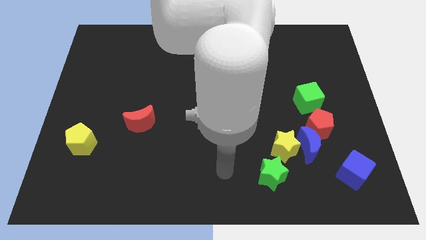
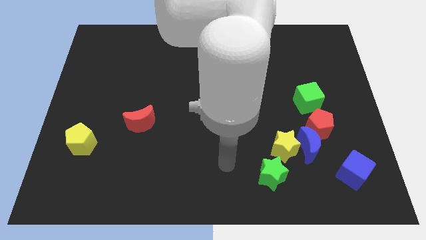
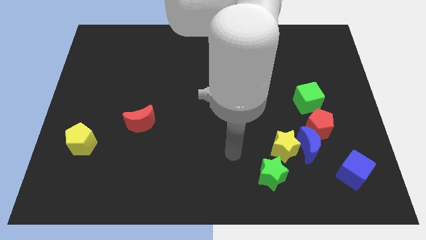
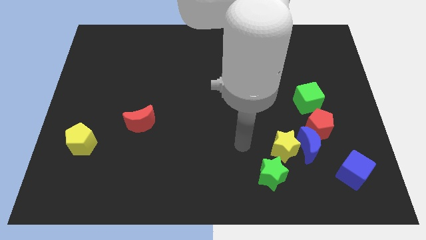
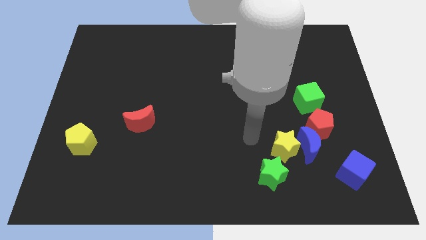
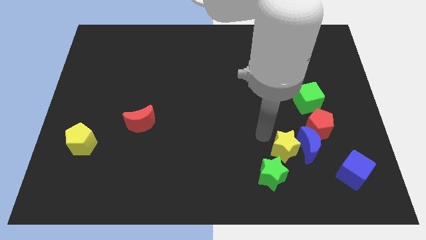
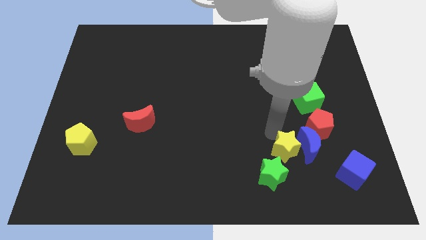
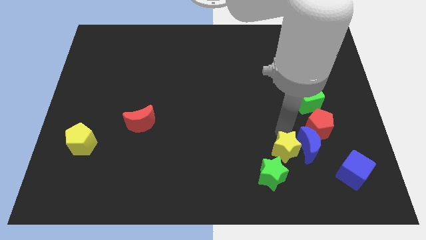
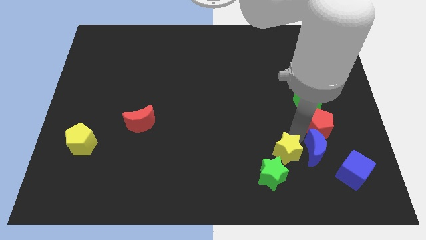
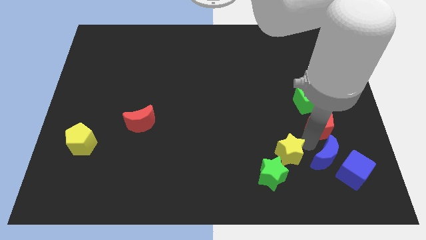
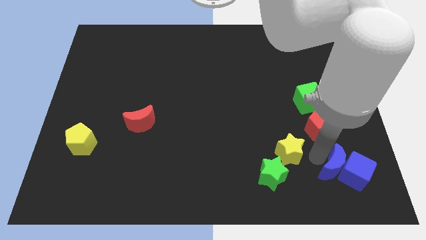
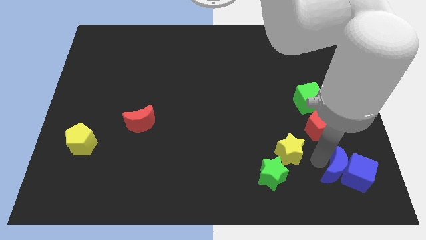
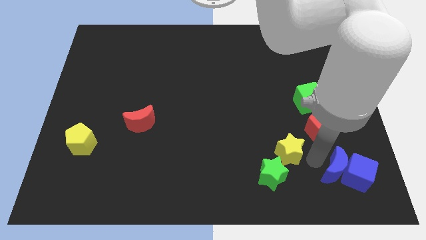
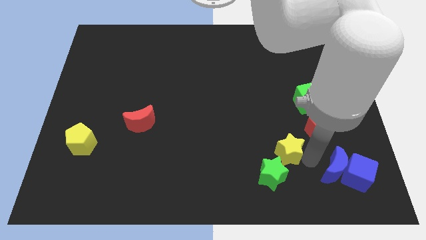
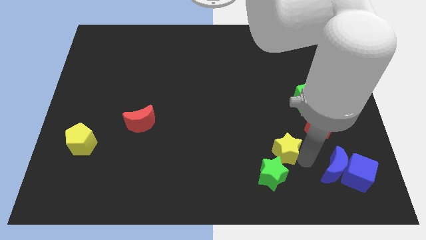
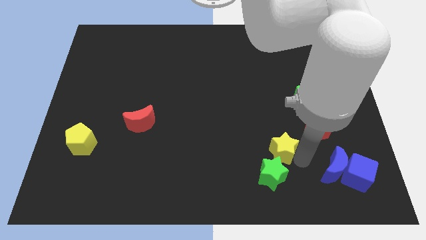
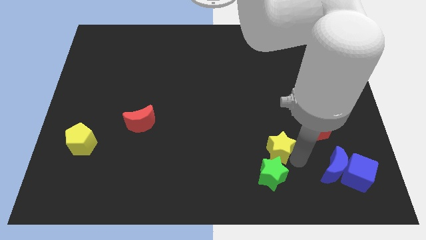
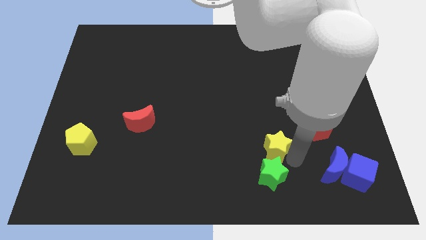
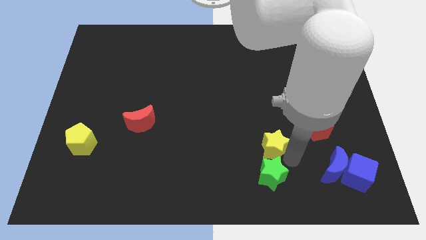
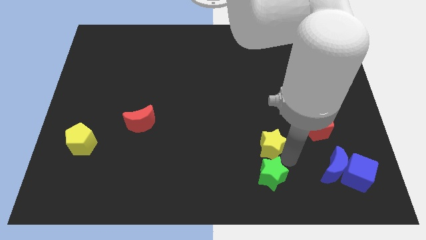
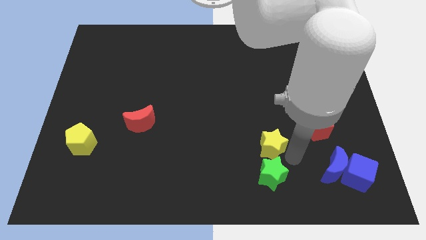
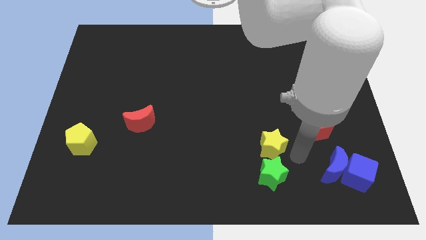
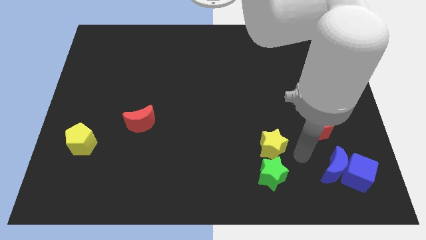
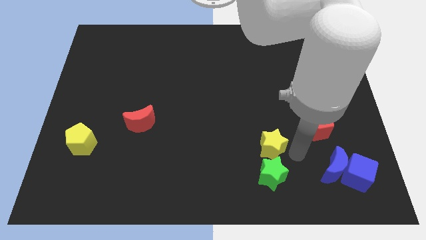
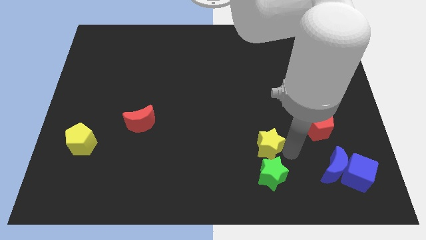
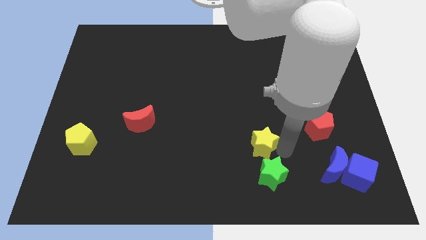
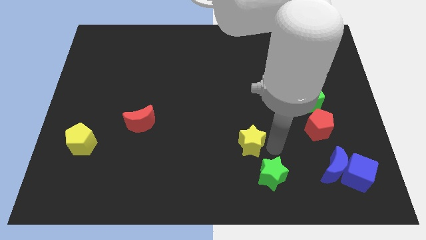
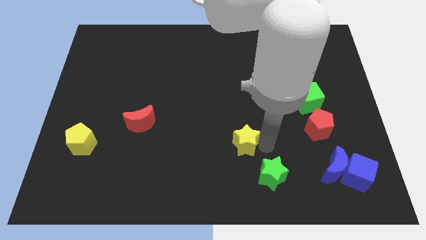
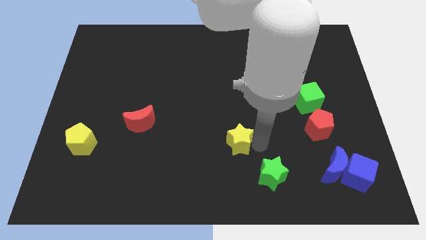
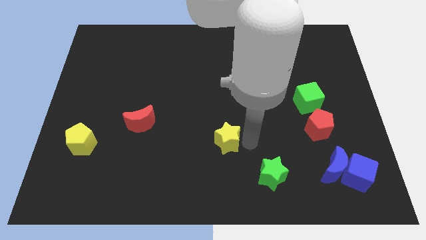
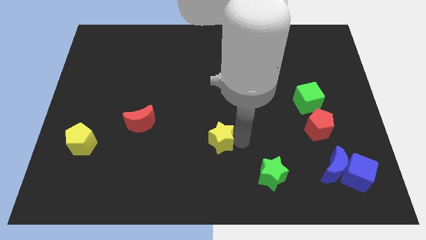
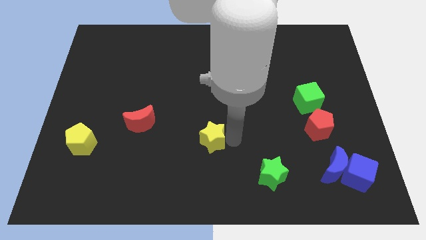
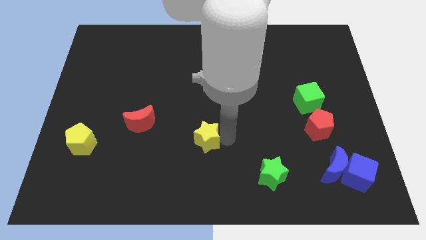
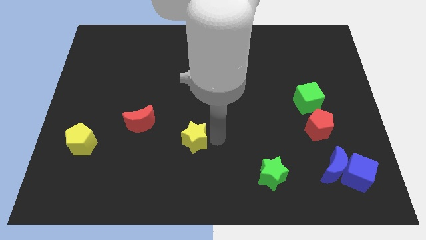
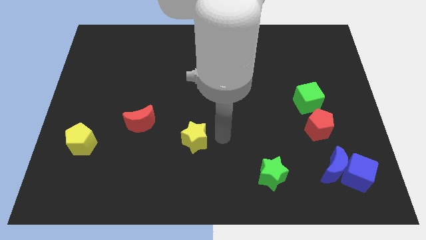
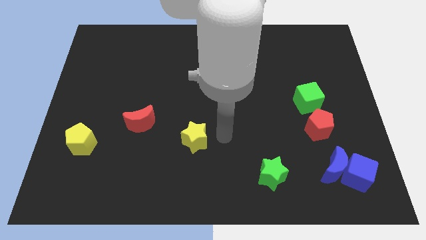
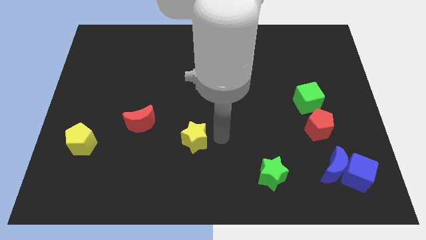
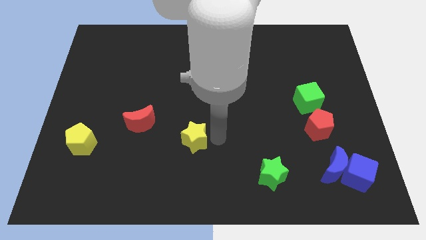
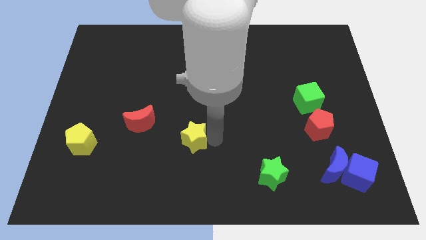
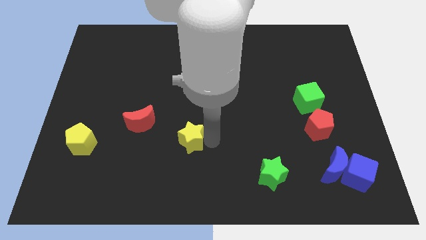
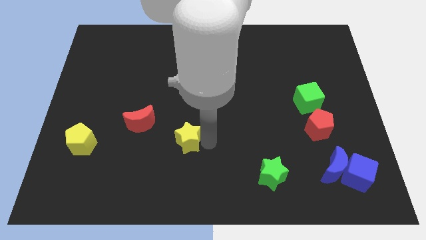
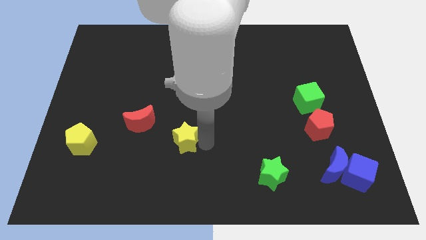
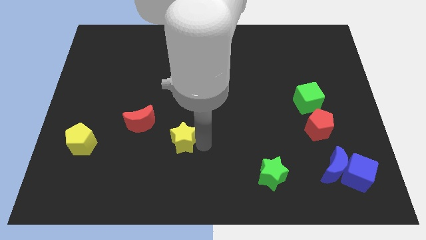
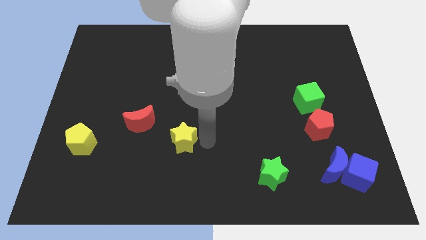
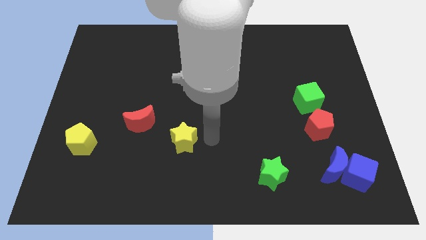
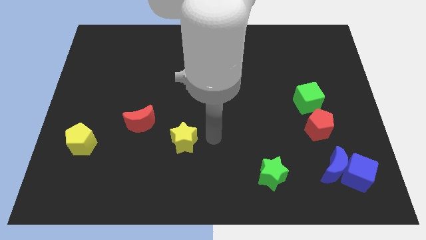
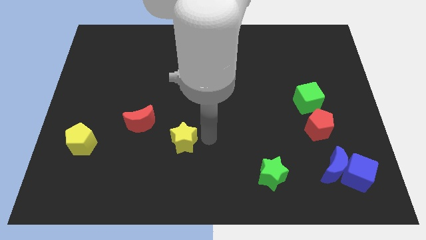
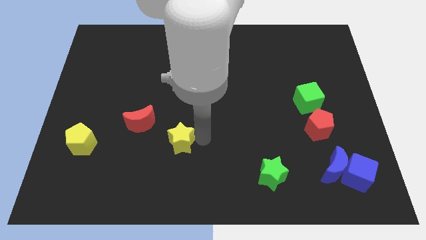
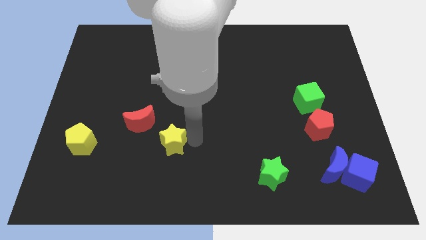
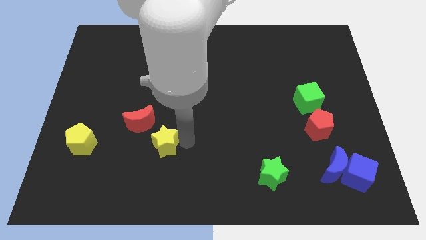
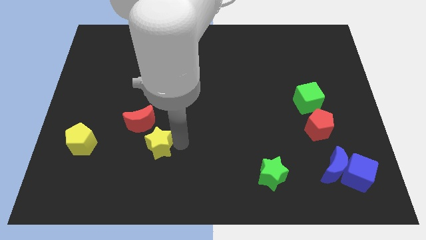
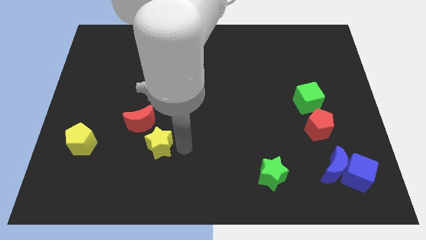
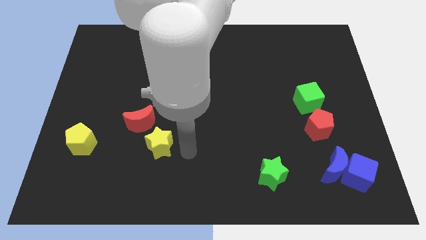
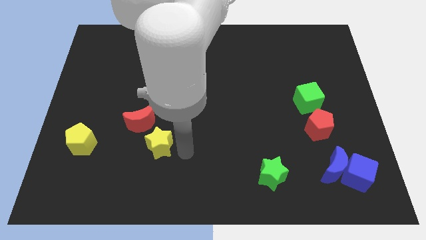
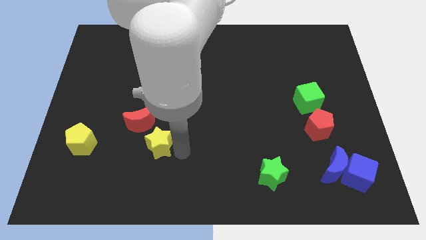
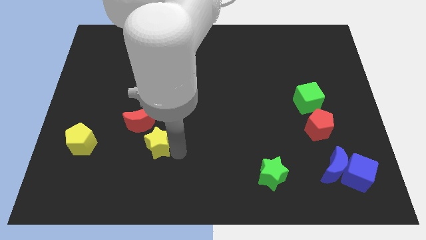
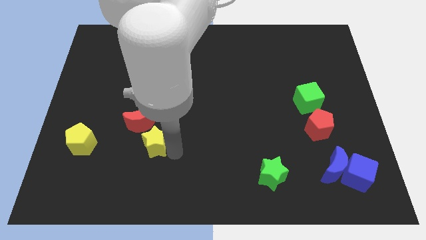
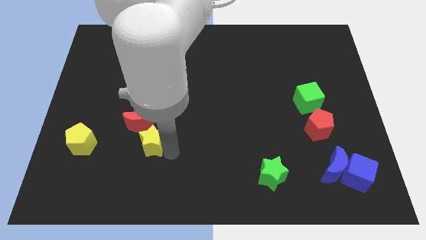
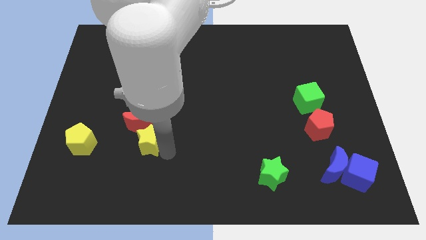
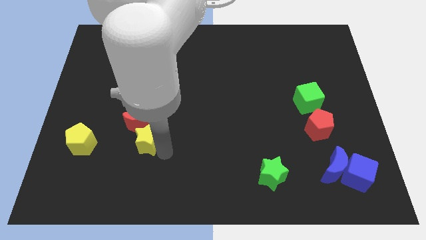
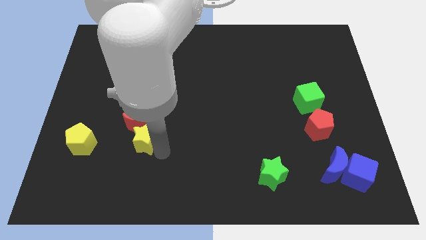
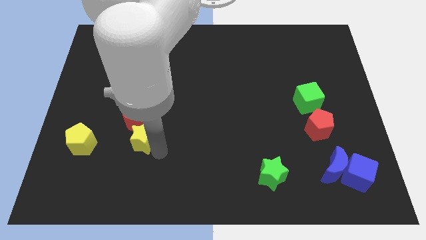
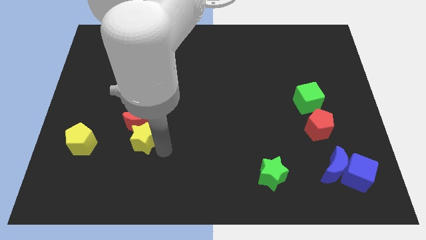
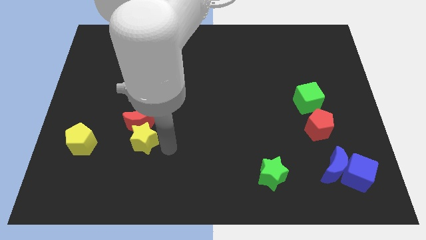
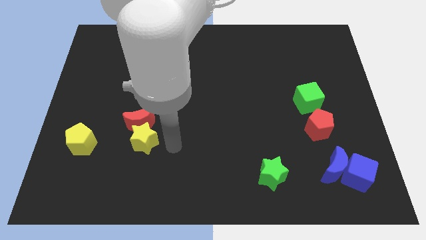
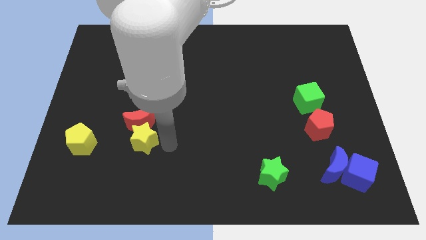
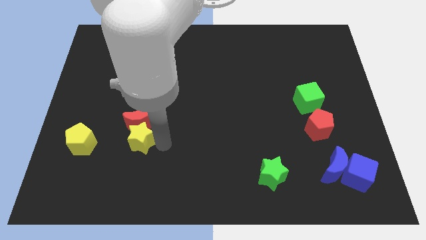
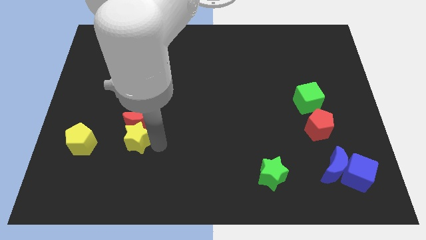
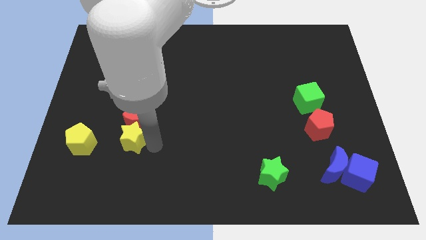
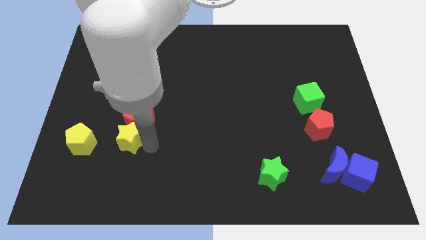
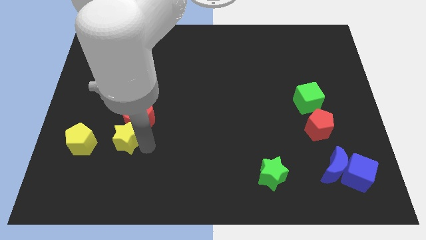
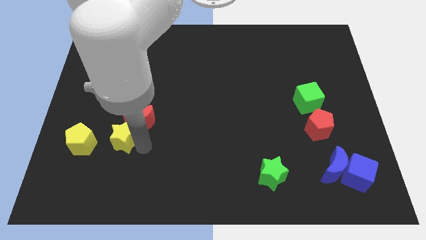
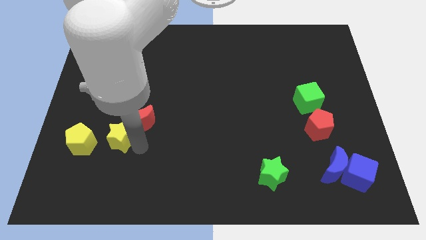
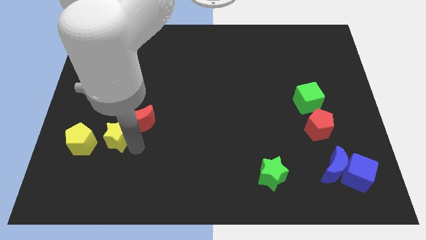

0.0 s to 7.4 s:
put the yellow star diagonally up and to the right of the yellow pentagon
